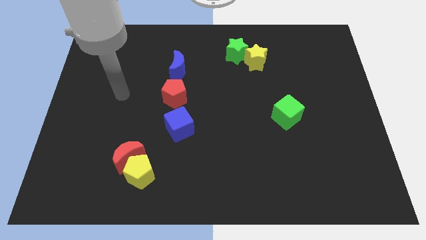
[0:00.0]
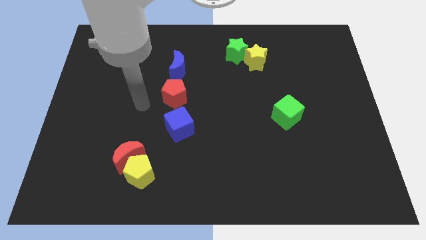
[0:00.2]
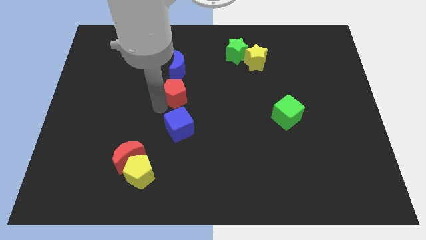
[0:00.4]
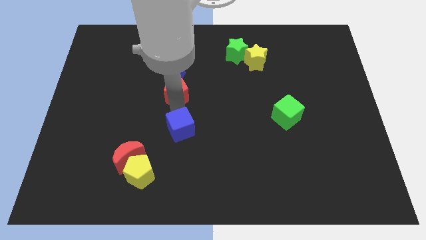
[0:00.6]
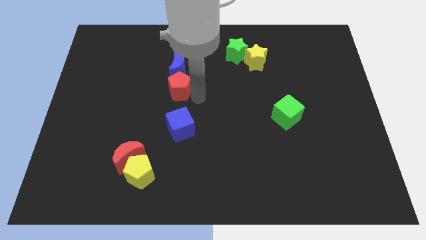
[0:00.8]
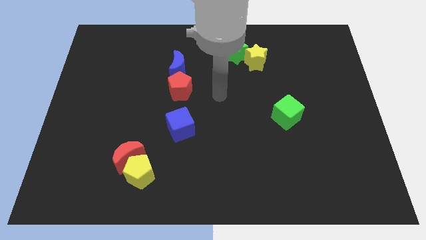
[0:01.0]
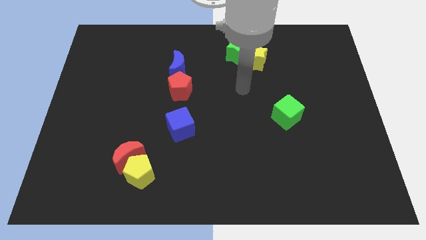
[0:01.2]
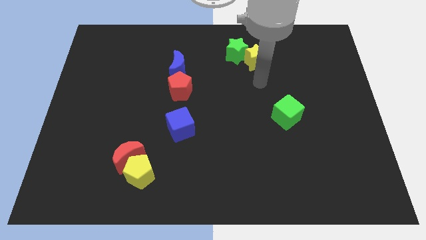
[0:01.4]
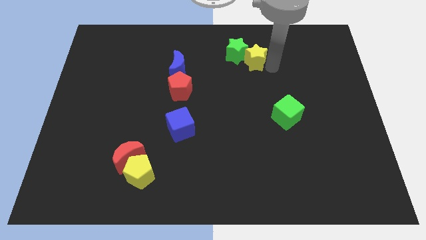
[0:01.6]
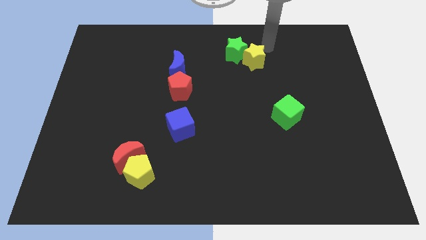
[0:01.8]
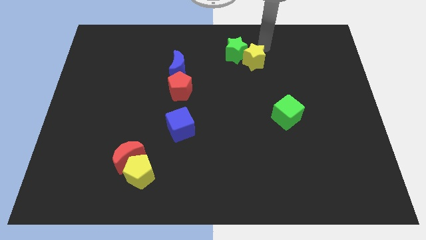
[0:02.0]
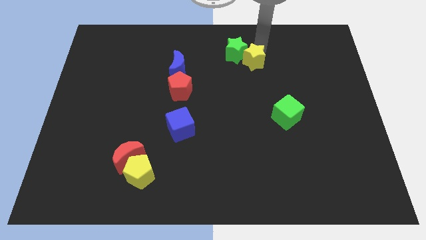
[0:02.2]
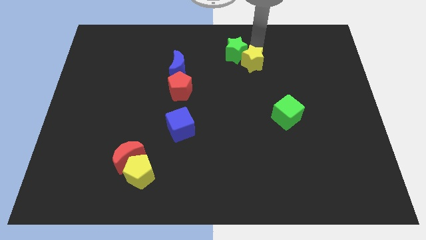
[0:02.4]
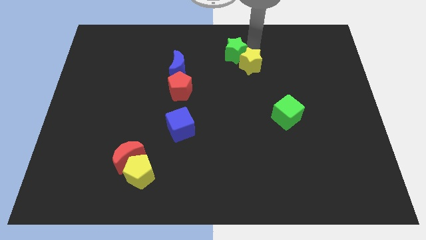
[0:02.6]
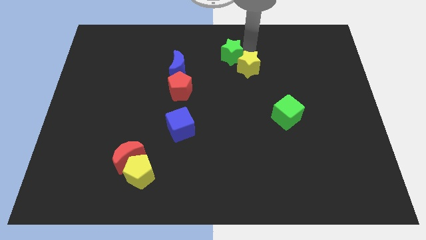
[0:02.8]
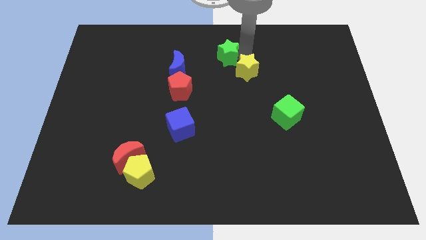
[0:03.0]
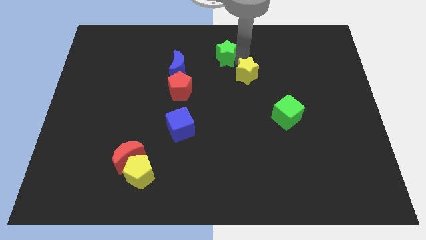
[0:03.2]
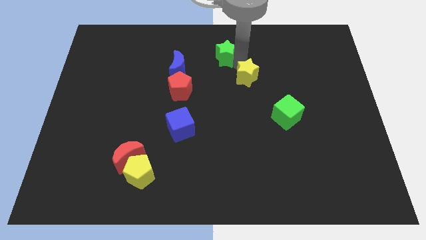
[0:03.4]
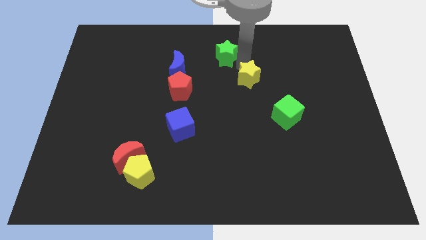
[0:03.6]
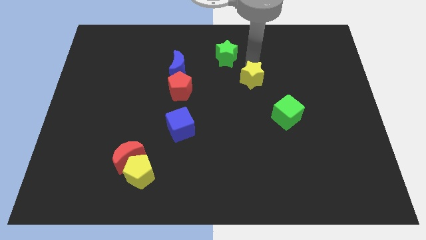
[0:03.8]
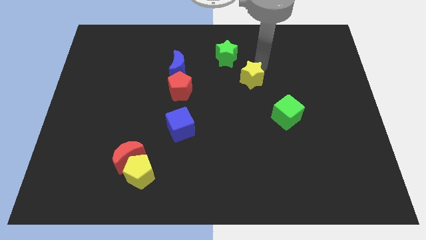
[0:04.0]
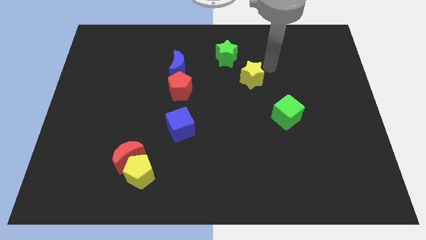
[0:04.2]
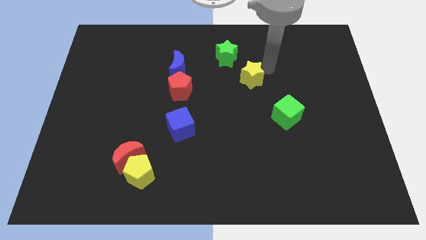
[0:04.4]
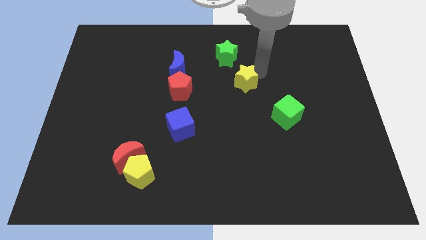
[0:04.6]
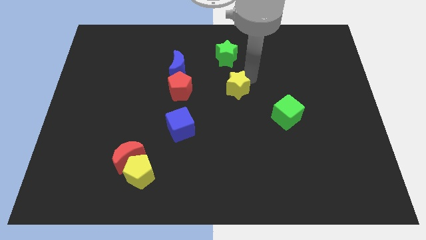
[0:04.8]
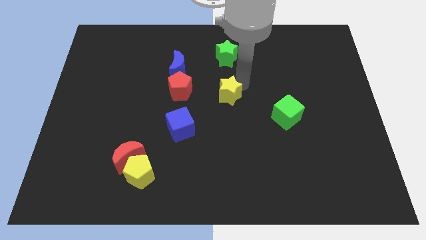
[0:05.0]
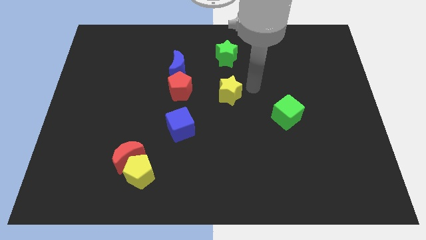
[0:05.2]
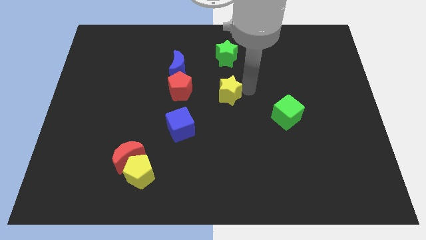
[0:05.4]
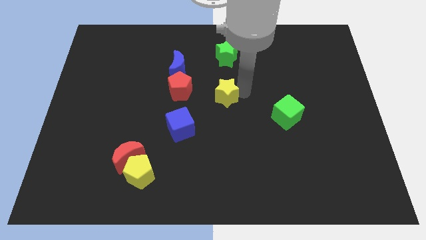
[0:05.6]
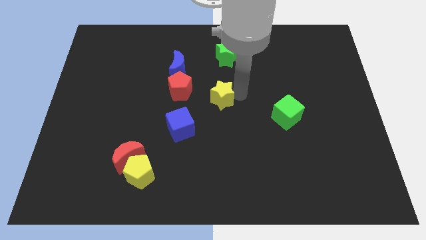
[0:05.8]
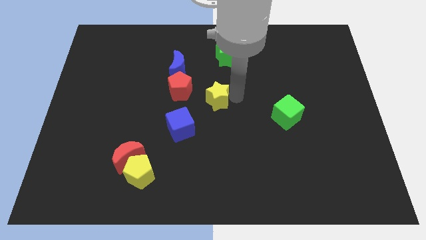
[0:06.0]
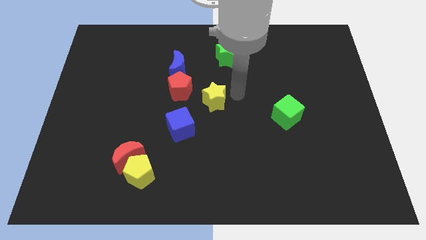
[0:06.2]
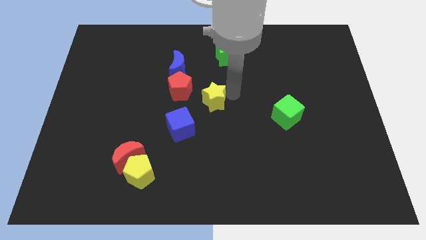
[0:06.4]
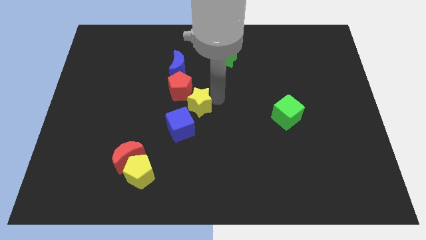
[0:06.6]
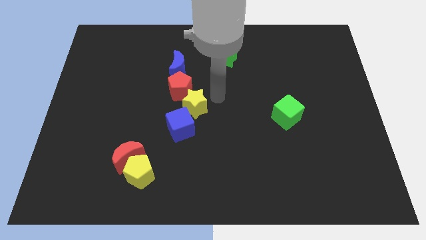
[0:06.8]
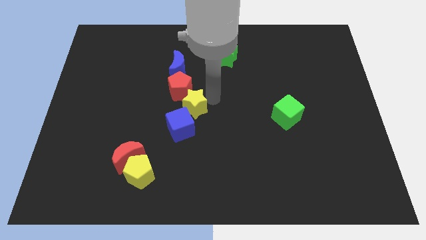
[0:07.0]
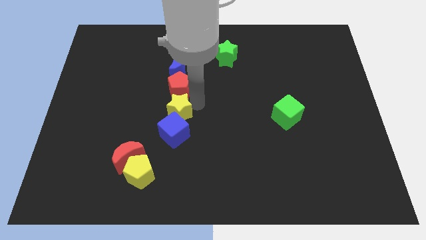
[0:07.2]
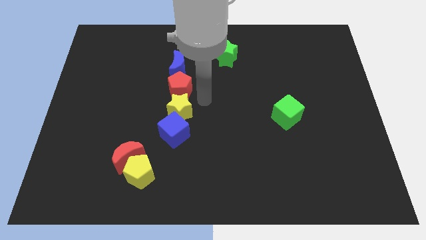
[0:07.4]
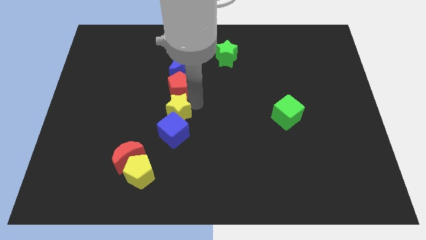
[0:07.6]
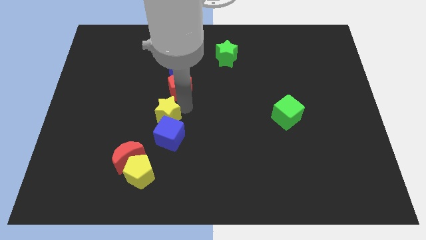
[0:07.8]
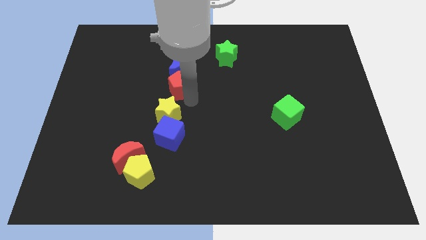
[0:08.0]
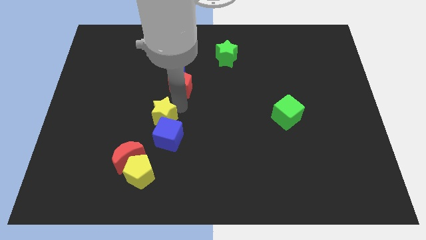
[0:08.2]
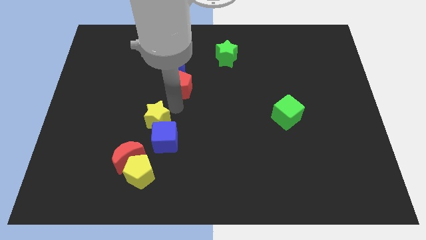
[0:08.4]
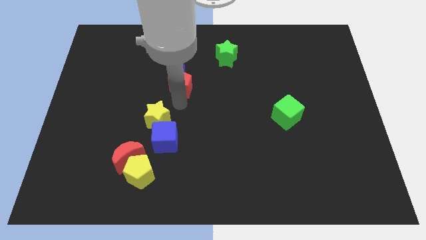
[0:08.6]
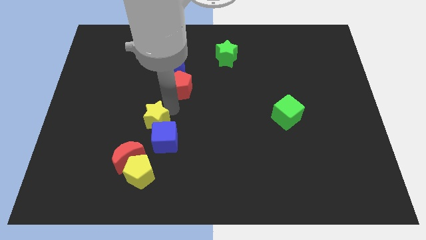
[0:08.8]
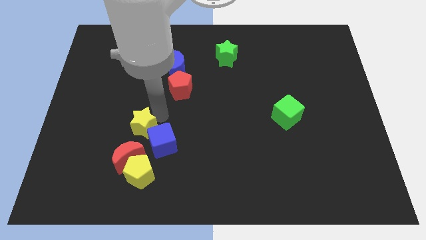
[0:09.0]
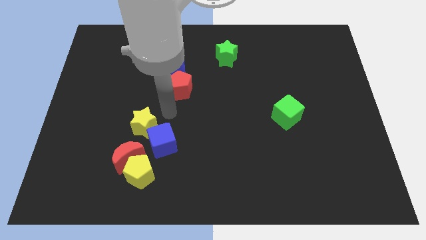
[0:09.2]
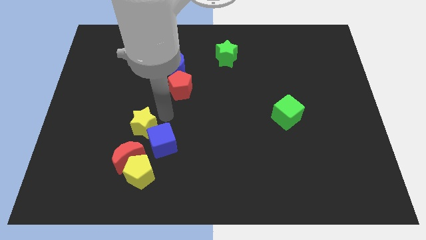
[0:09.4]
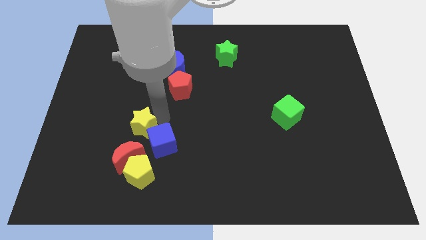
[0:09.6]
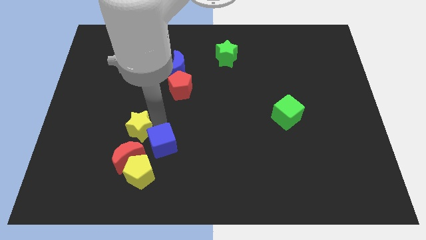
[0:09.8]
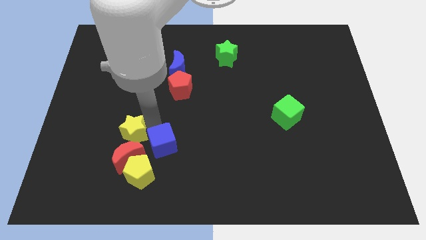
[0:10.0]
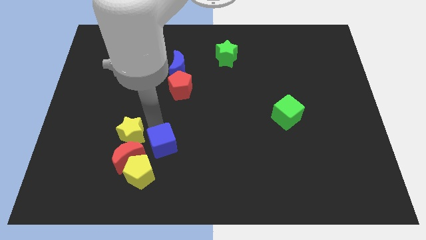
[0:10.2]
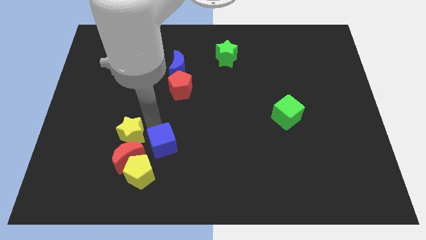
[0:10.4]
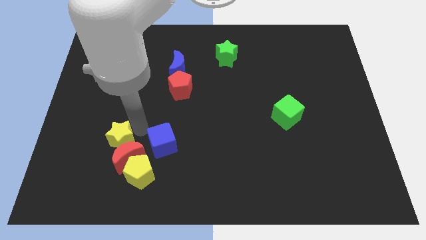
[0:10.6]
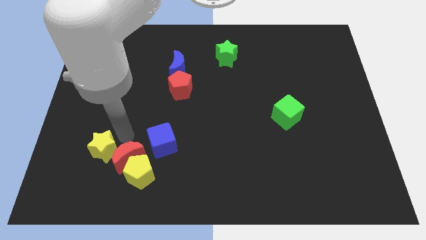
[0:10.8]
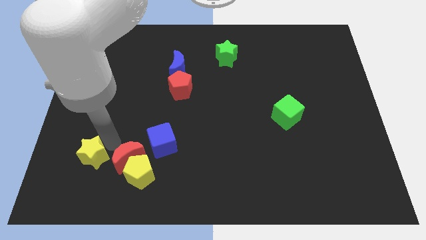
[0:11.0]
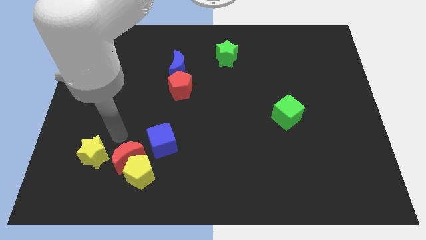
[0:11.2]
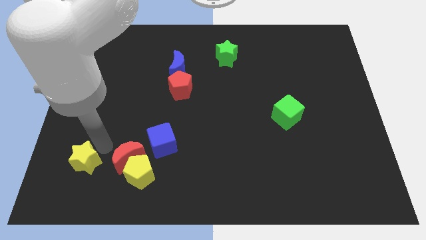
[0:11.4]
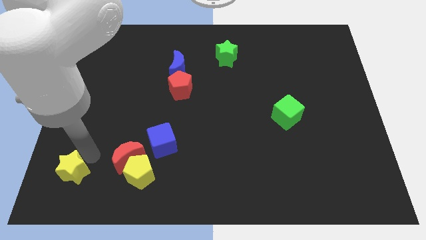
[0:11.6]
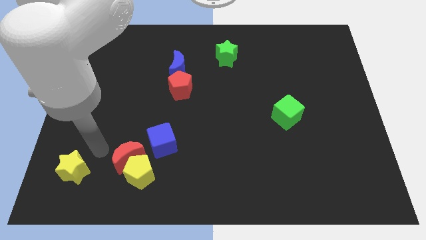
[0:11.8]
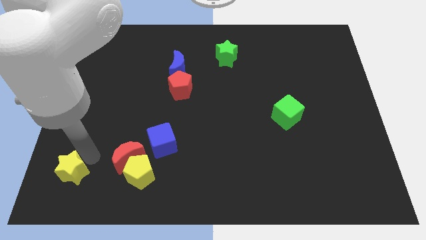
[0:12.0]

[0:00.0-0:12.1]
push the yellow star to the bottom left

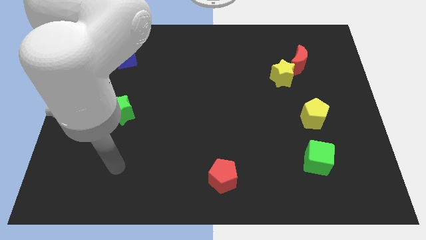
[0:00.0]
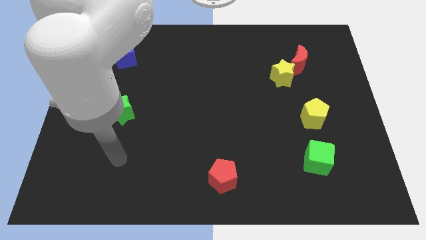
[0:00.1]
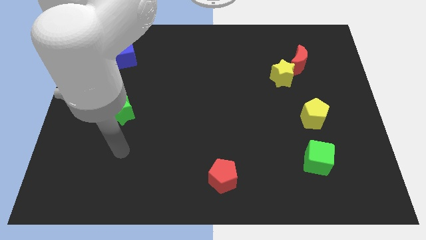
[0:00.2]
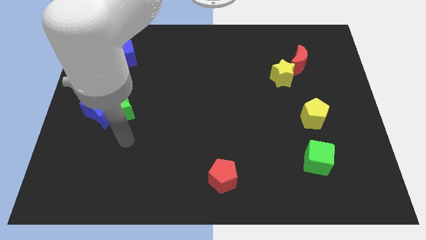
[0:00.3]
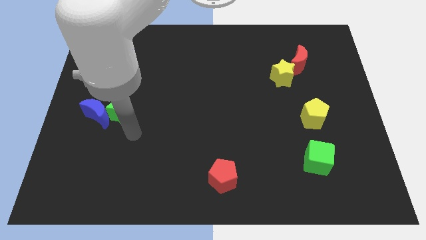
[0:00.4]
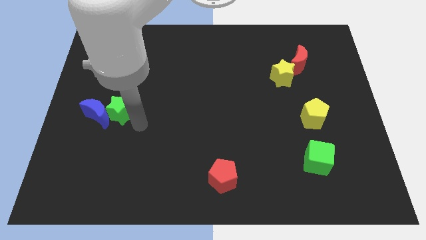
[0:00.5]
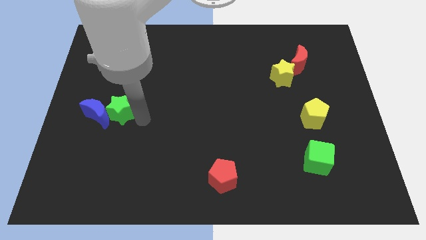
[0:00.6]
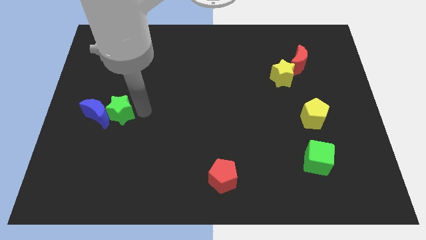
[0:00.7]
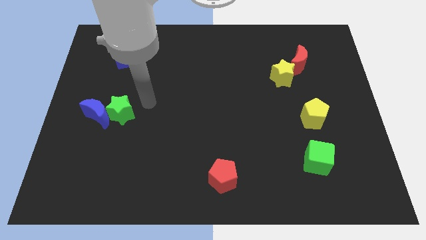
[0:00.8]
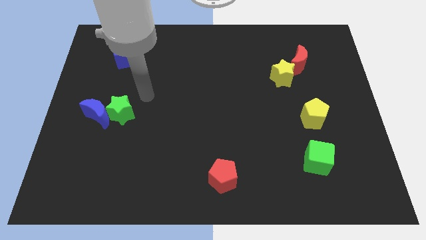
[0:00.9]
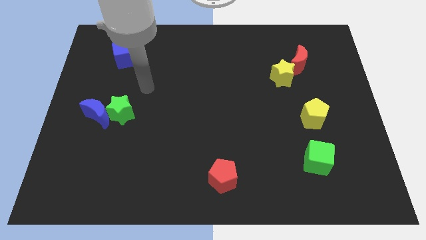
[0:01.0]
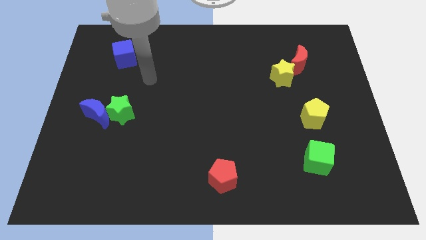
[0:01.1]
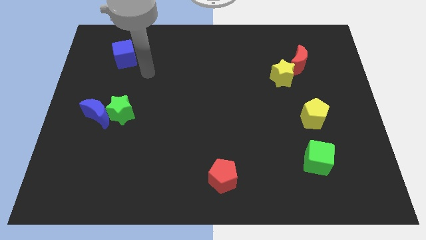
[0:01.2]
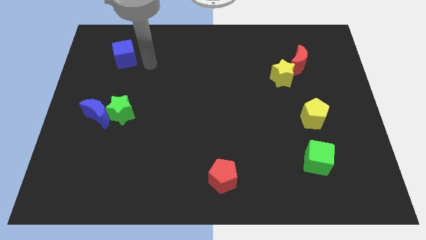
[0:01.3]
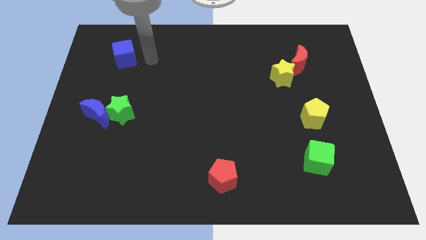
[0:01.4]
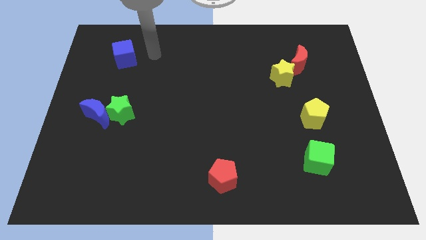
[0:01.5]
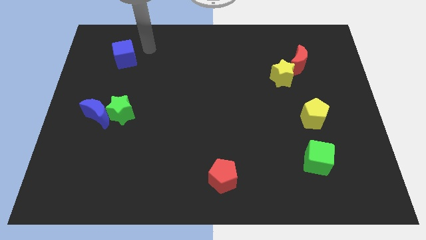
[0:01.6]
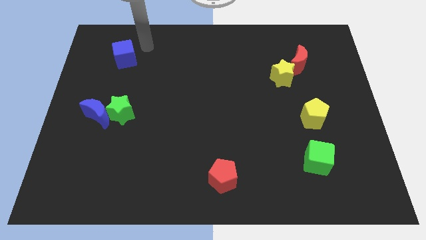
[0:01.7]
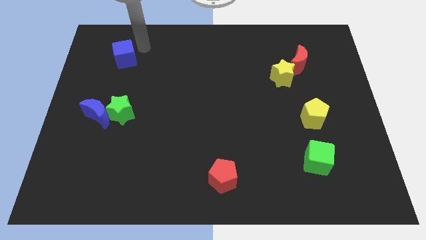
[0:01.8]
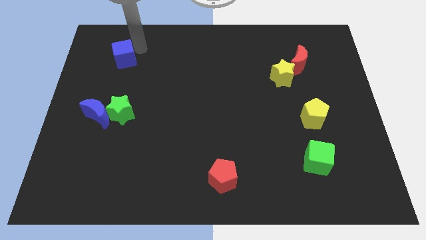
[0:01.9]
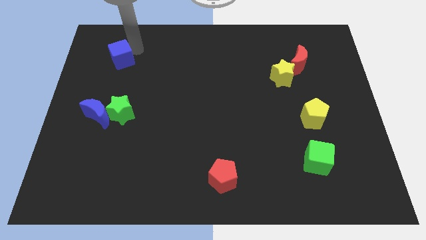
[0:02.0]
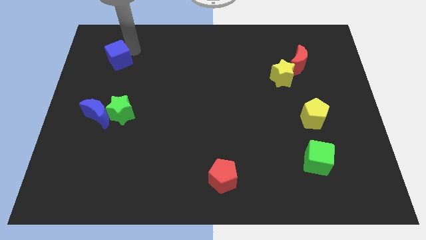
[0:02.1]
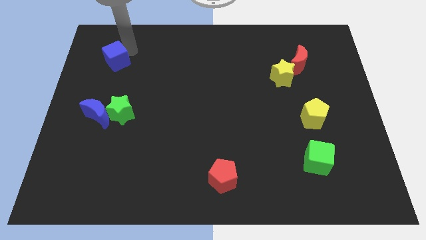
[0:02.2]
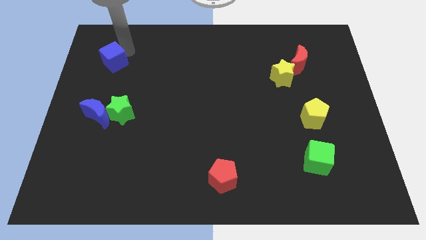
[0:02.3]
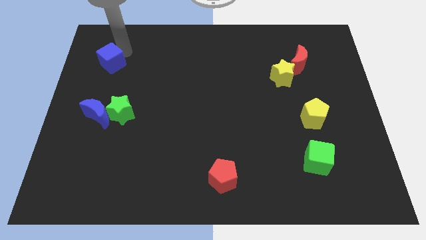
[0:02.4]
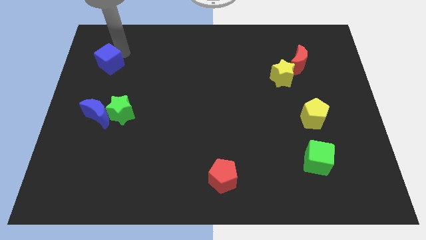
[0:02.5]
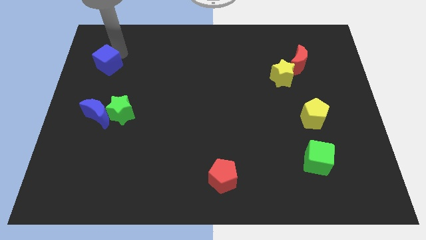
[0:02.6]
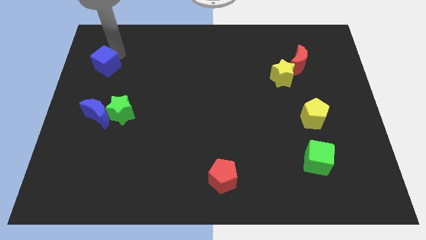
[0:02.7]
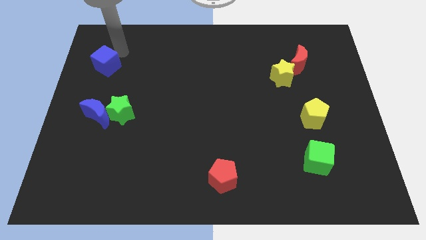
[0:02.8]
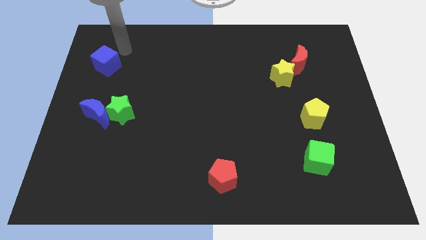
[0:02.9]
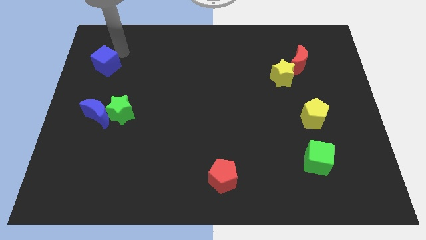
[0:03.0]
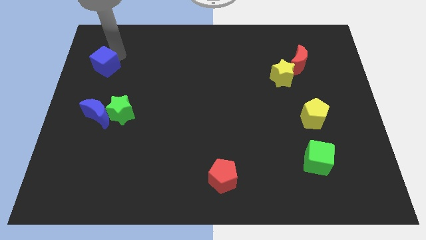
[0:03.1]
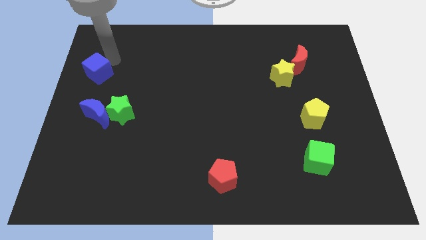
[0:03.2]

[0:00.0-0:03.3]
push the blue cube to the left side
